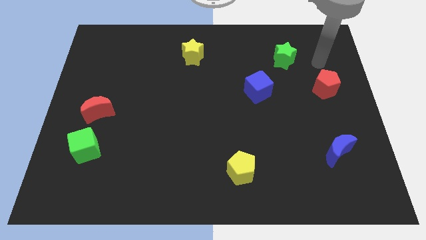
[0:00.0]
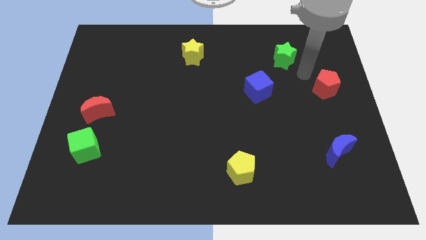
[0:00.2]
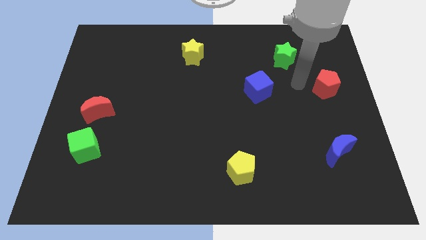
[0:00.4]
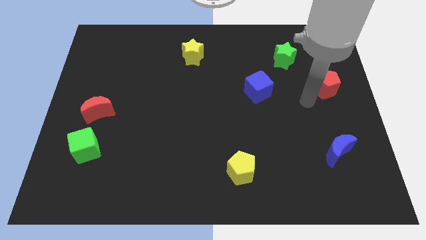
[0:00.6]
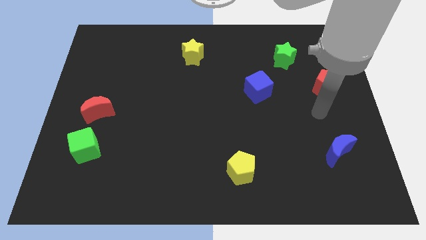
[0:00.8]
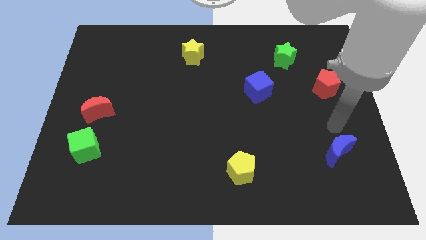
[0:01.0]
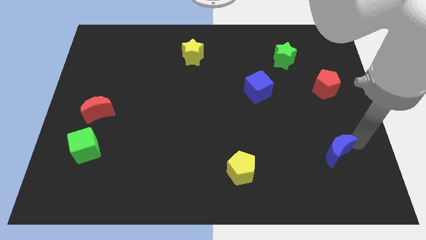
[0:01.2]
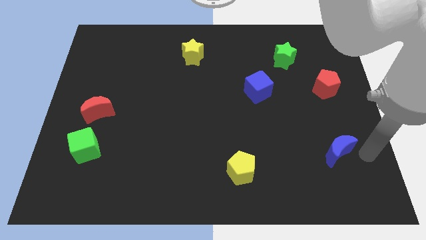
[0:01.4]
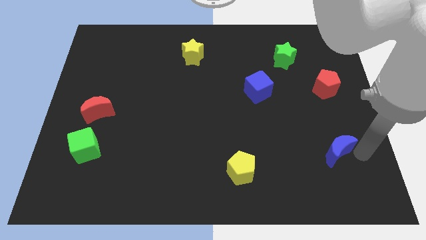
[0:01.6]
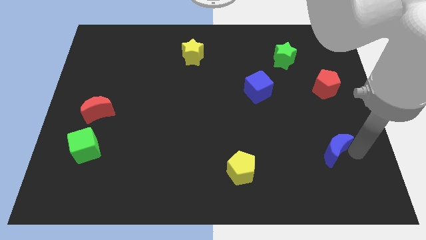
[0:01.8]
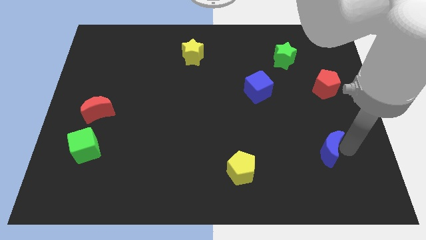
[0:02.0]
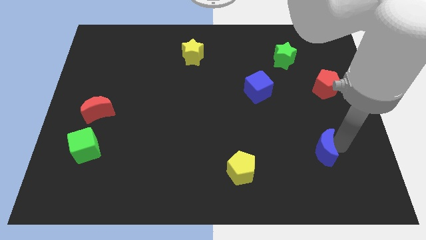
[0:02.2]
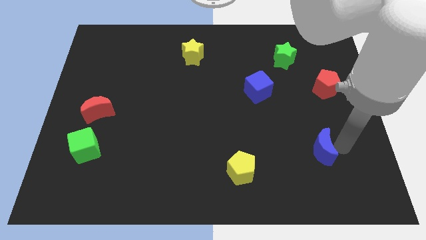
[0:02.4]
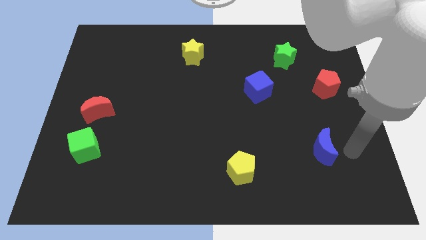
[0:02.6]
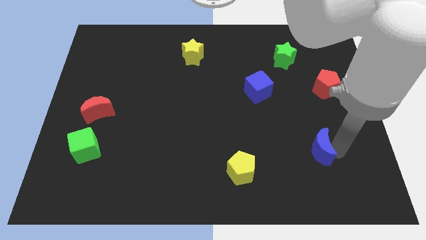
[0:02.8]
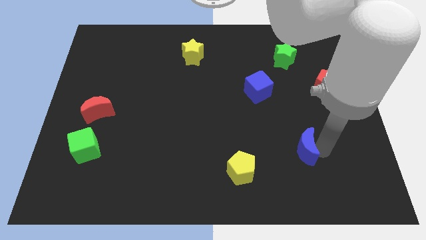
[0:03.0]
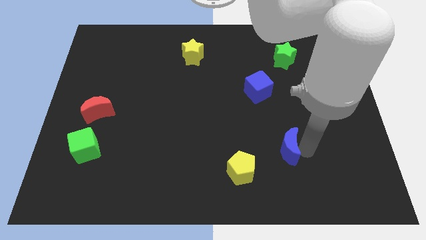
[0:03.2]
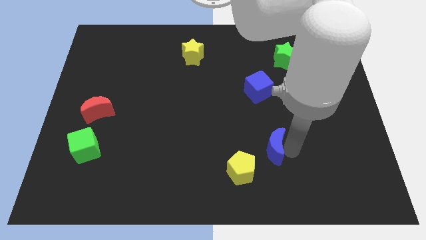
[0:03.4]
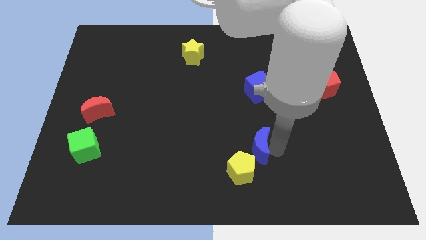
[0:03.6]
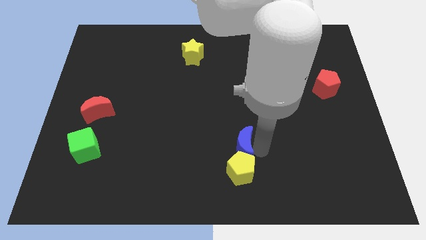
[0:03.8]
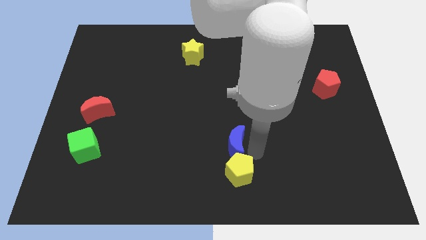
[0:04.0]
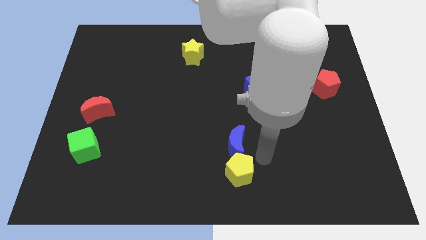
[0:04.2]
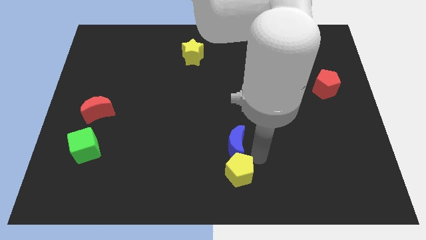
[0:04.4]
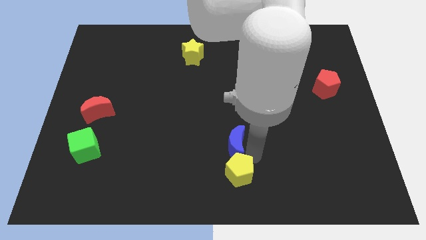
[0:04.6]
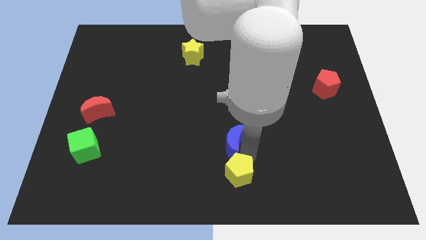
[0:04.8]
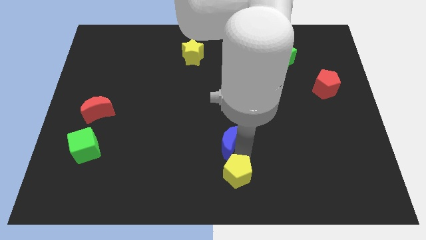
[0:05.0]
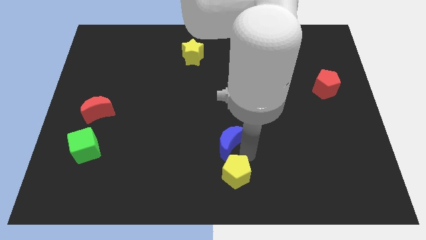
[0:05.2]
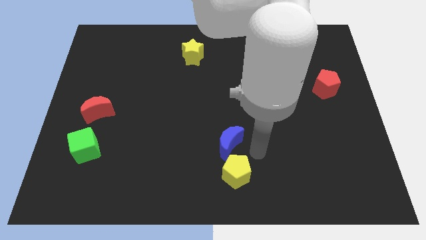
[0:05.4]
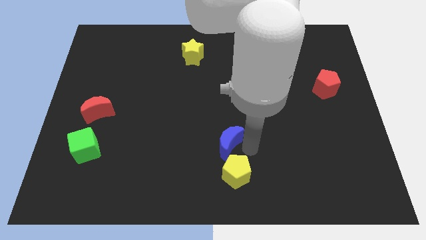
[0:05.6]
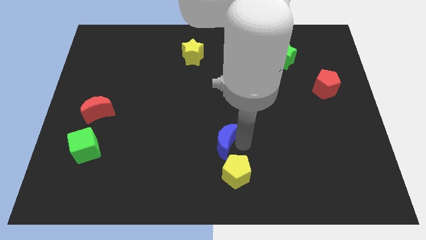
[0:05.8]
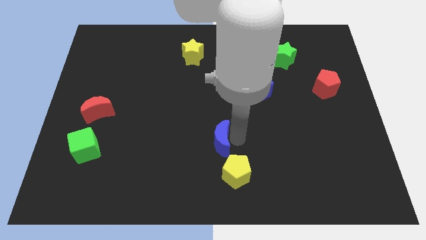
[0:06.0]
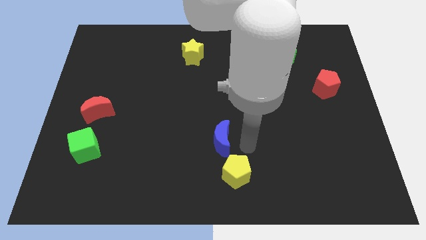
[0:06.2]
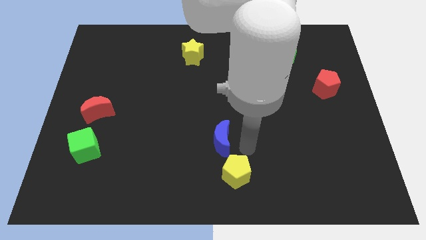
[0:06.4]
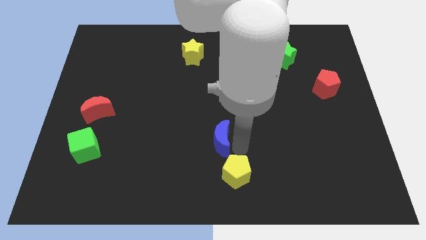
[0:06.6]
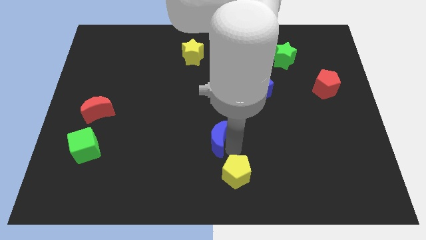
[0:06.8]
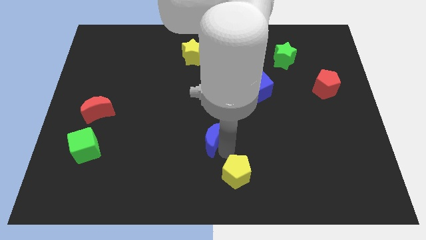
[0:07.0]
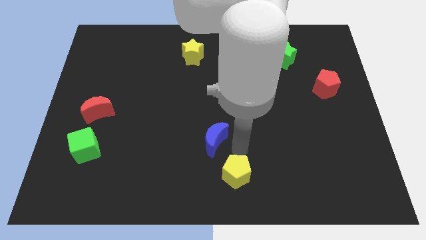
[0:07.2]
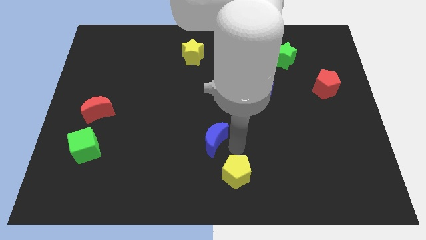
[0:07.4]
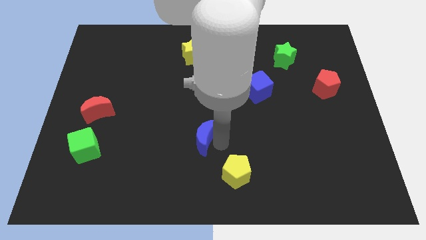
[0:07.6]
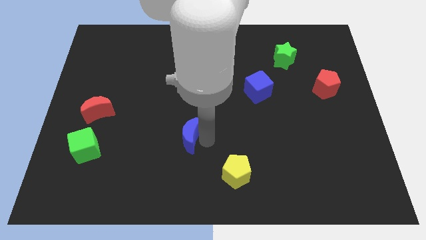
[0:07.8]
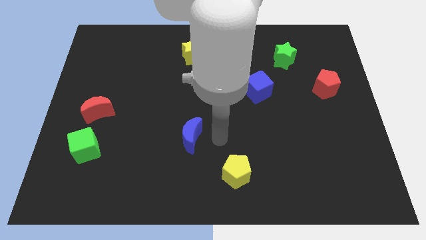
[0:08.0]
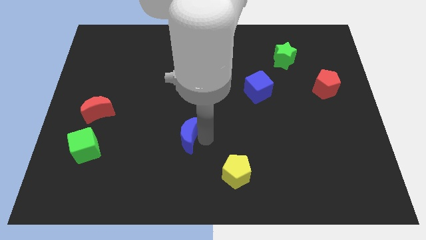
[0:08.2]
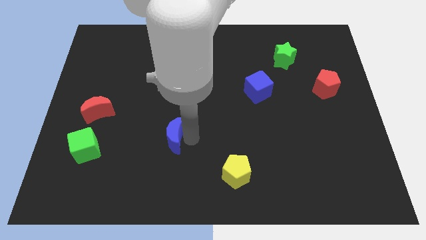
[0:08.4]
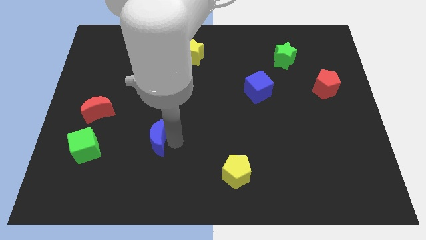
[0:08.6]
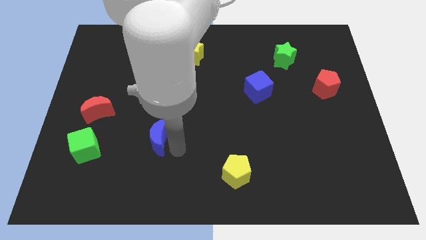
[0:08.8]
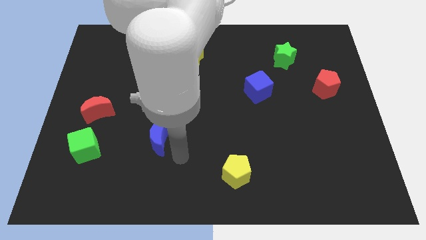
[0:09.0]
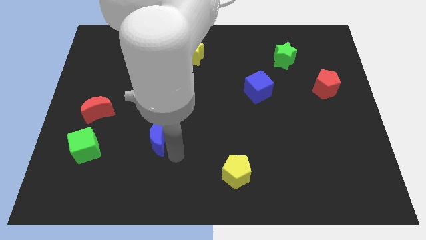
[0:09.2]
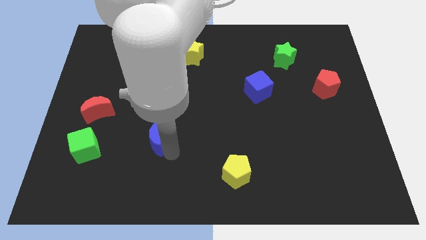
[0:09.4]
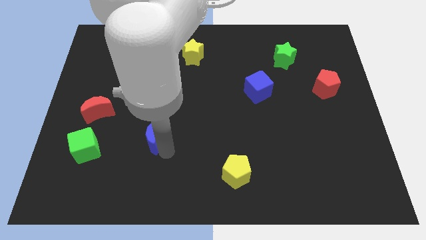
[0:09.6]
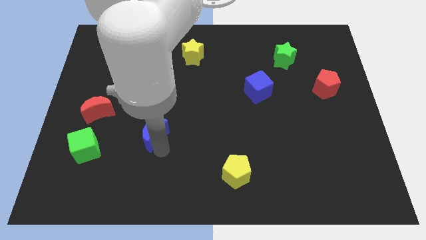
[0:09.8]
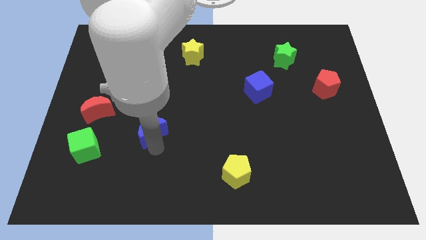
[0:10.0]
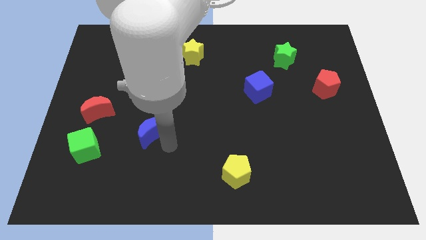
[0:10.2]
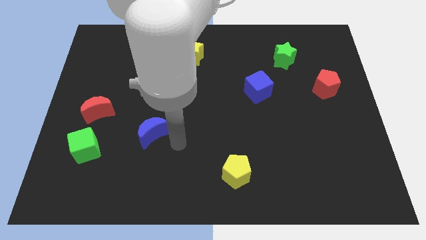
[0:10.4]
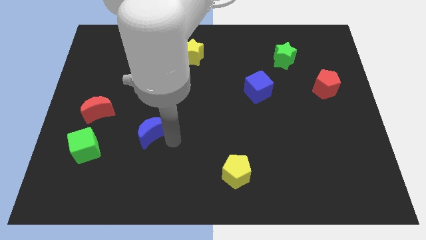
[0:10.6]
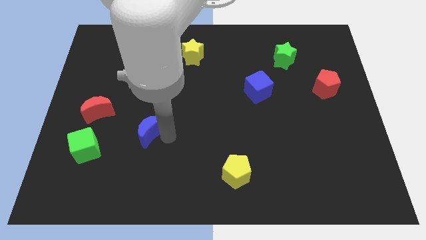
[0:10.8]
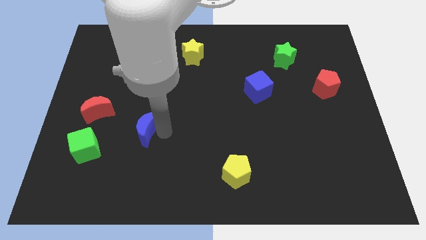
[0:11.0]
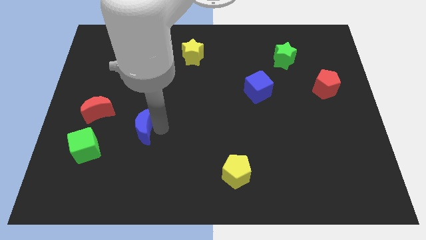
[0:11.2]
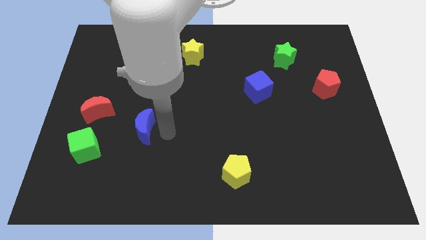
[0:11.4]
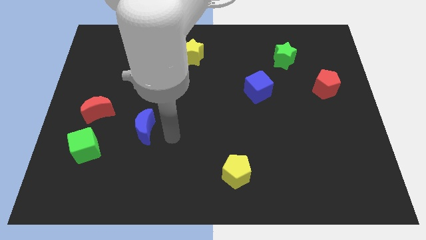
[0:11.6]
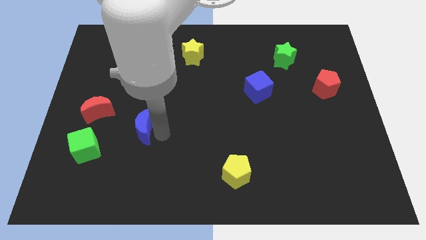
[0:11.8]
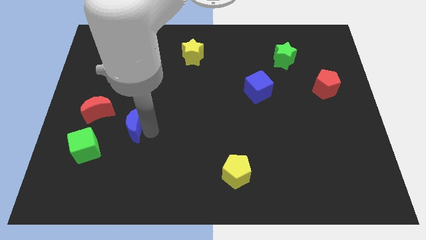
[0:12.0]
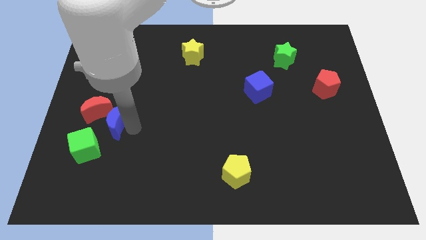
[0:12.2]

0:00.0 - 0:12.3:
slide the blue moon next to the red moon
